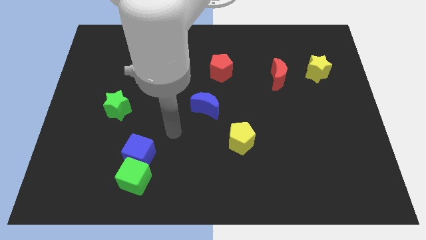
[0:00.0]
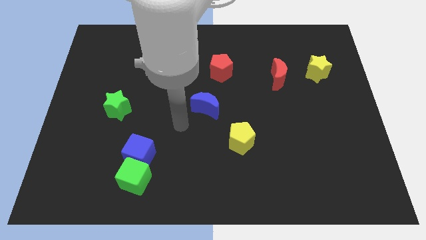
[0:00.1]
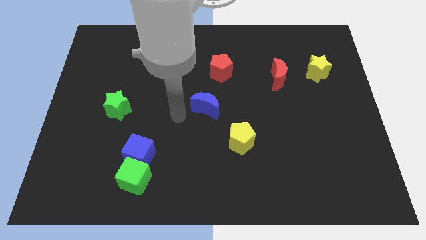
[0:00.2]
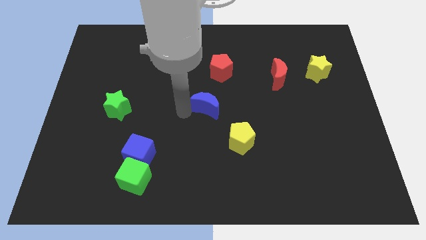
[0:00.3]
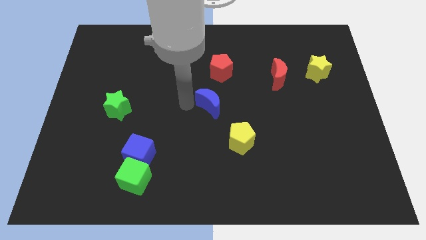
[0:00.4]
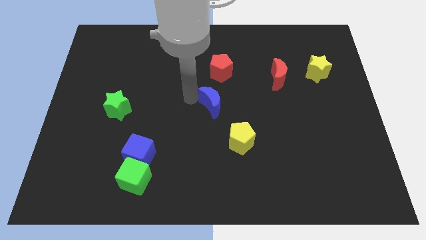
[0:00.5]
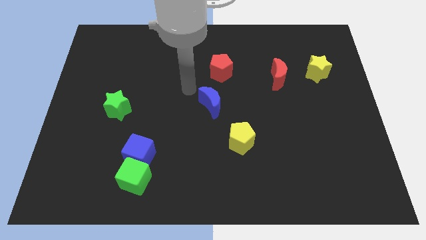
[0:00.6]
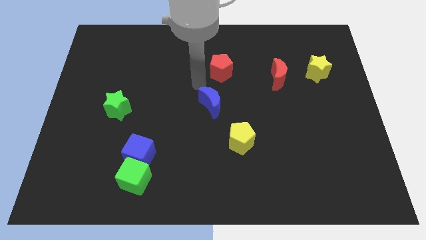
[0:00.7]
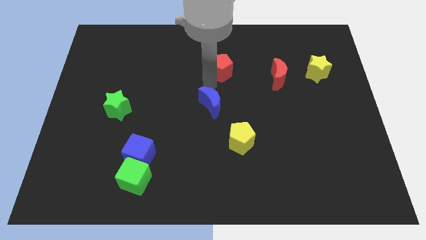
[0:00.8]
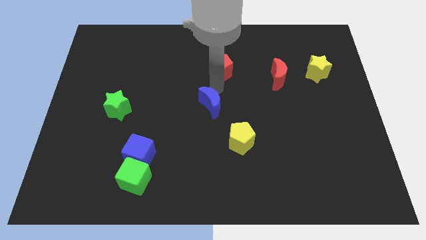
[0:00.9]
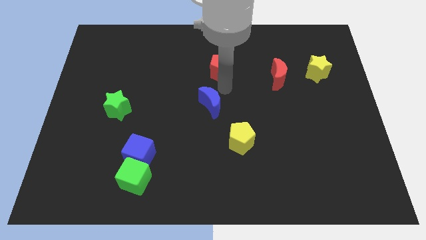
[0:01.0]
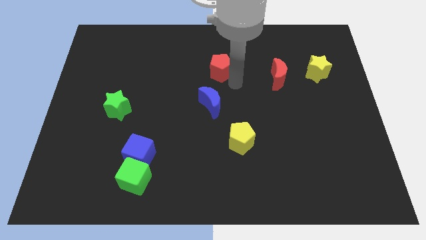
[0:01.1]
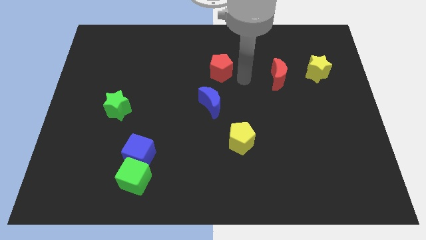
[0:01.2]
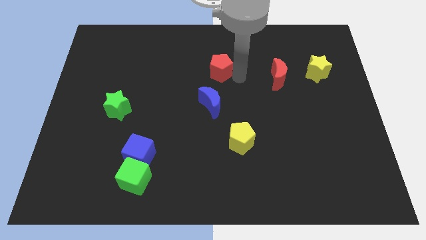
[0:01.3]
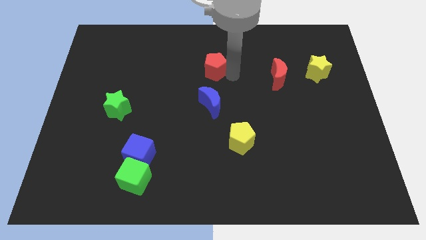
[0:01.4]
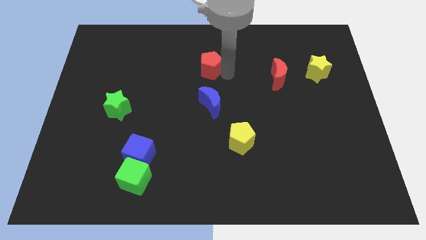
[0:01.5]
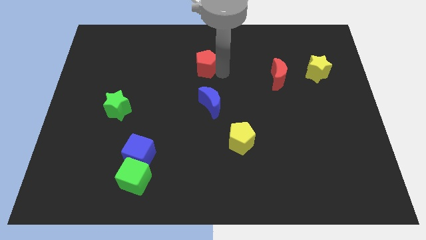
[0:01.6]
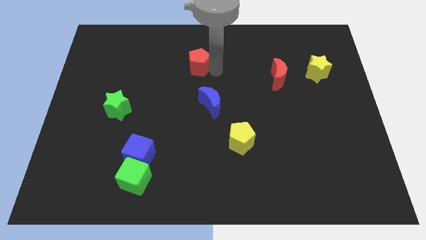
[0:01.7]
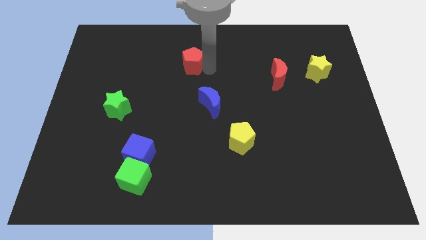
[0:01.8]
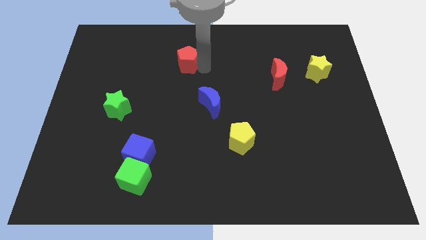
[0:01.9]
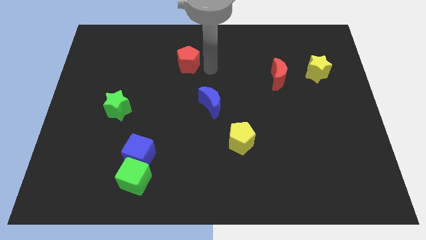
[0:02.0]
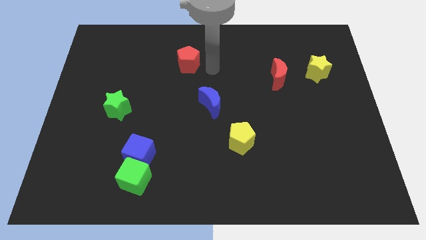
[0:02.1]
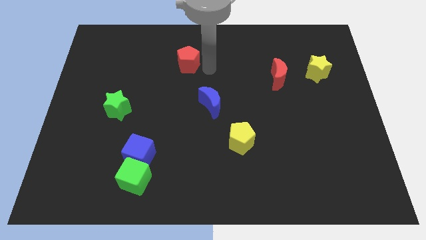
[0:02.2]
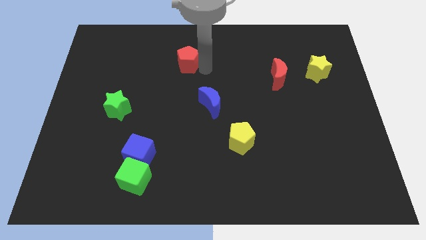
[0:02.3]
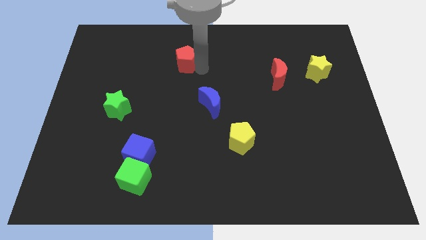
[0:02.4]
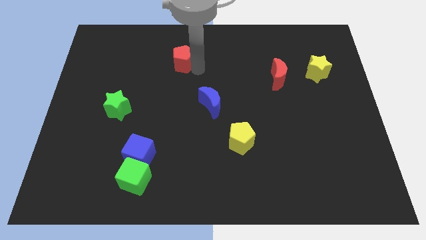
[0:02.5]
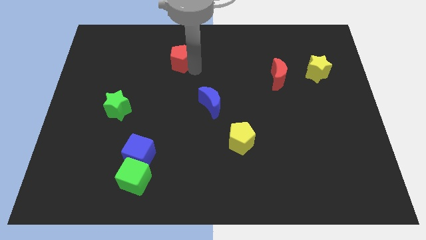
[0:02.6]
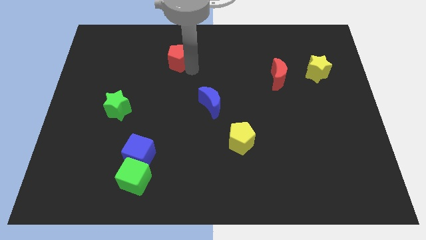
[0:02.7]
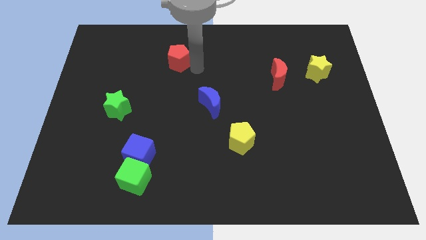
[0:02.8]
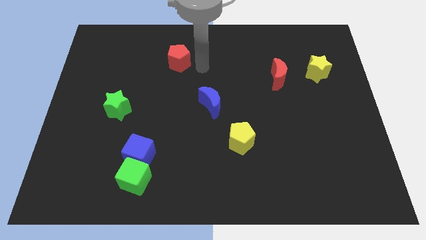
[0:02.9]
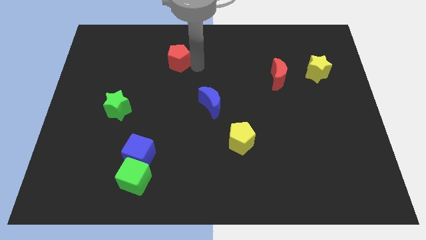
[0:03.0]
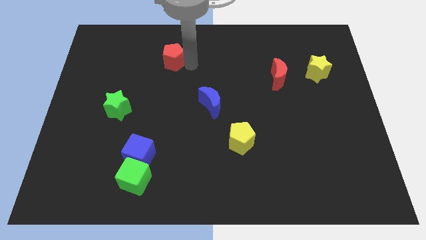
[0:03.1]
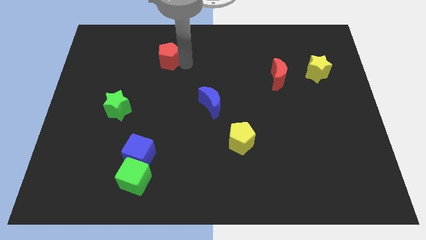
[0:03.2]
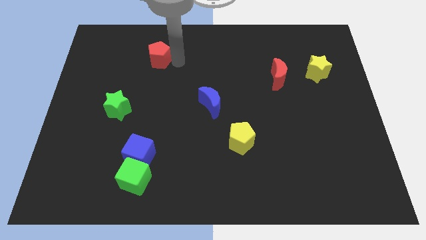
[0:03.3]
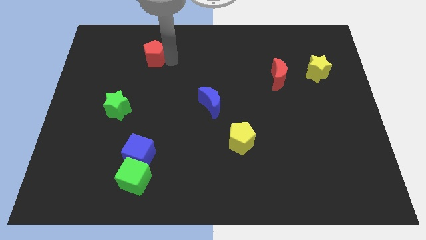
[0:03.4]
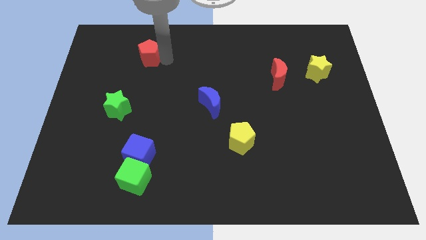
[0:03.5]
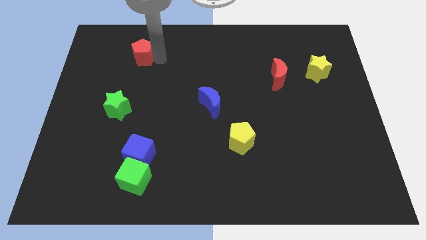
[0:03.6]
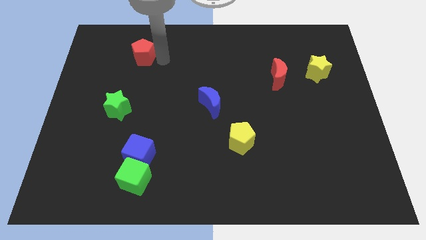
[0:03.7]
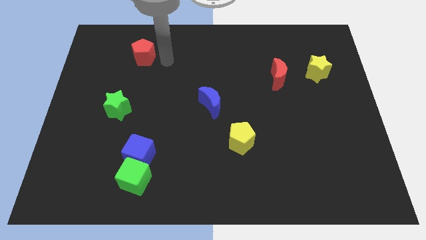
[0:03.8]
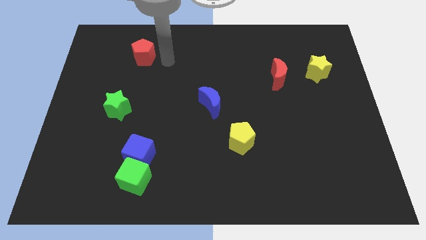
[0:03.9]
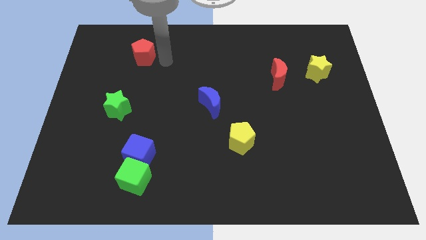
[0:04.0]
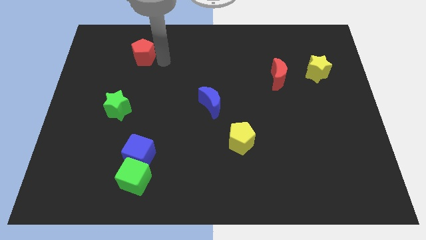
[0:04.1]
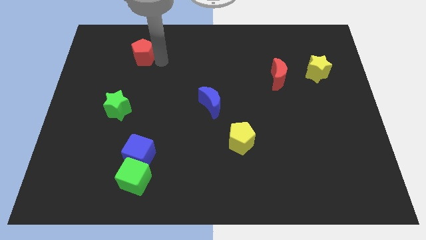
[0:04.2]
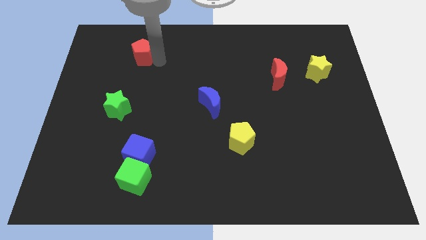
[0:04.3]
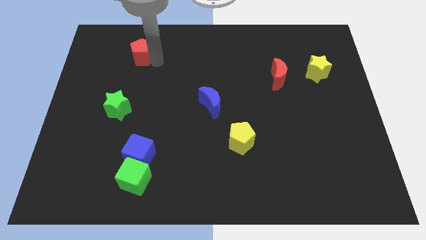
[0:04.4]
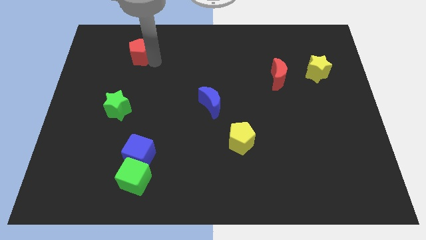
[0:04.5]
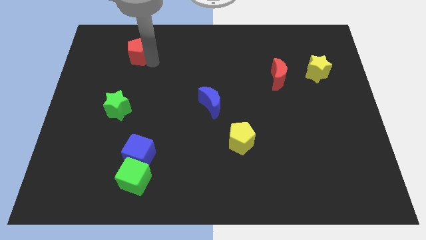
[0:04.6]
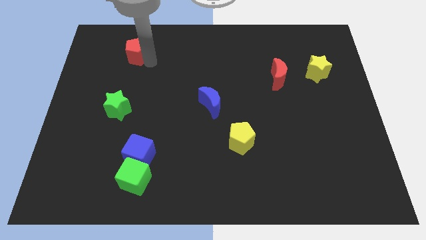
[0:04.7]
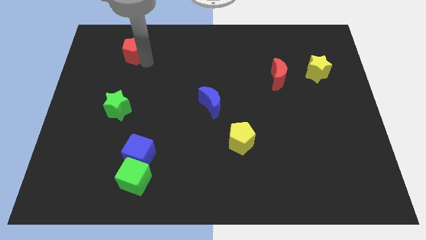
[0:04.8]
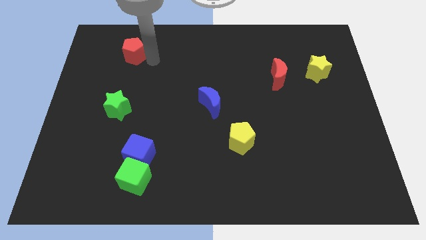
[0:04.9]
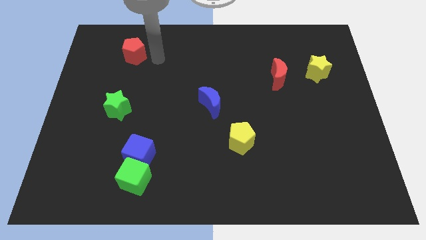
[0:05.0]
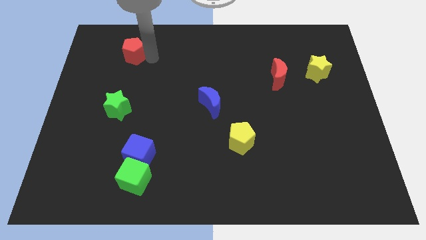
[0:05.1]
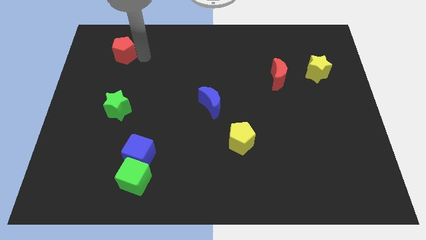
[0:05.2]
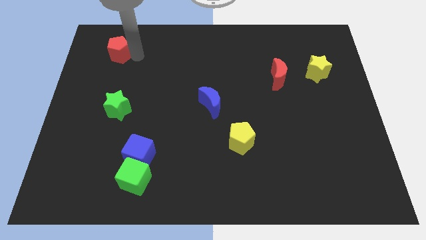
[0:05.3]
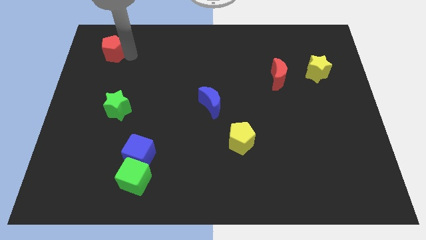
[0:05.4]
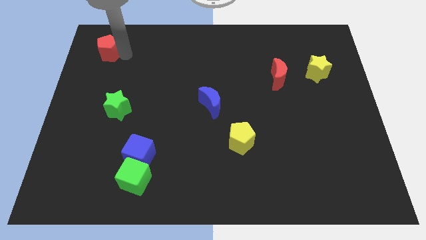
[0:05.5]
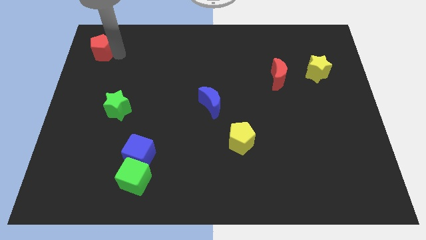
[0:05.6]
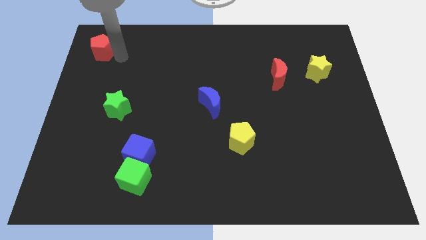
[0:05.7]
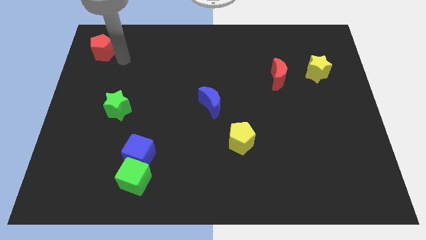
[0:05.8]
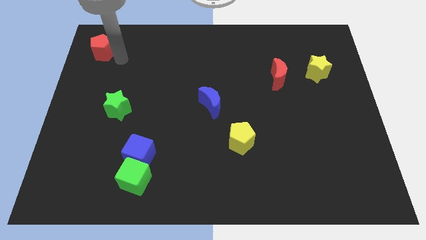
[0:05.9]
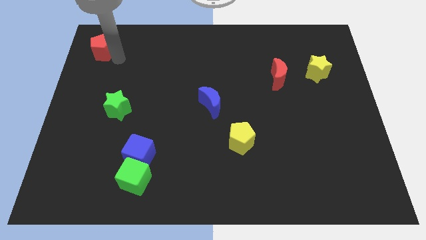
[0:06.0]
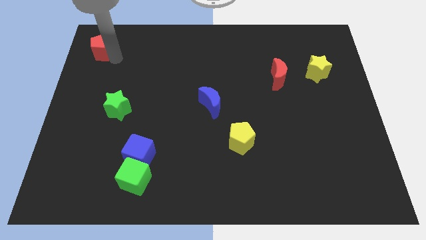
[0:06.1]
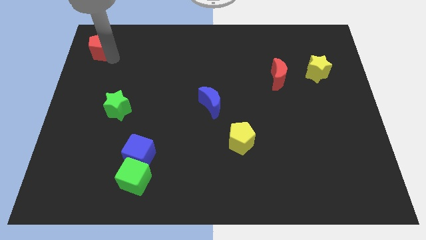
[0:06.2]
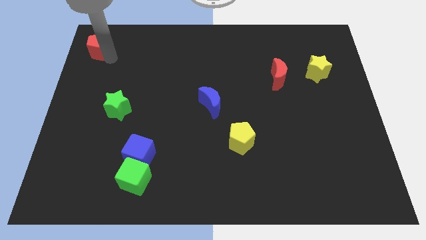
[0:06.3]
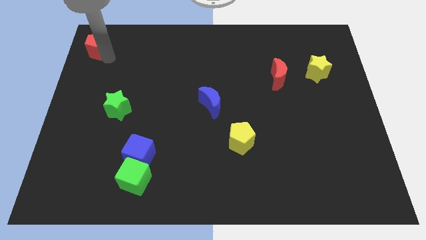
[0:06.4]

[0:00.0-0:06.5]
slide the red pentagon to the top left

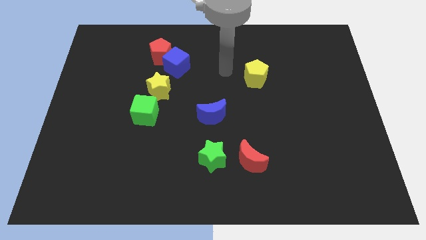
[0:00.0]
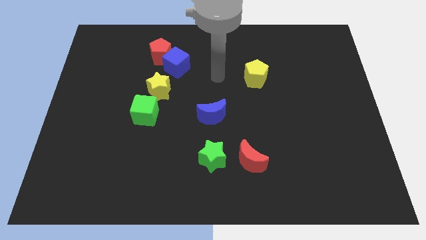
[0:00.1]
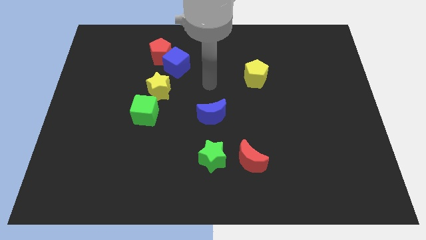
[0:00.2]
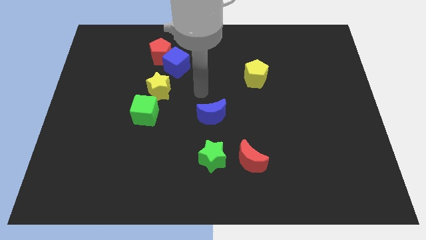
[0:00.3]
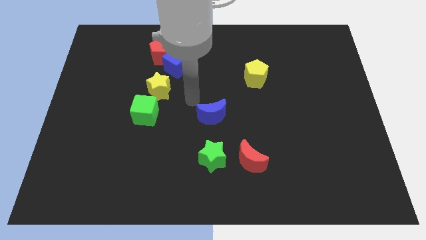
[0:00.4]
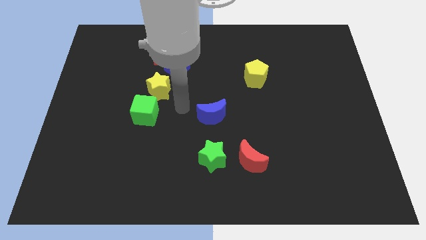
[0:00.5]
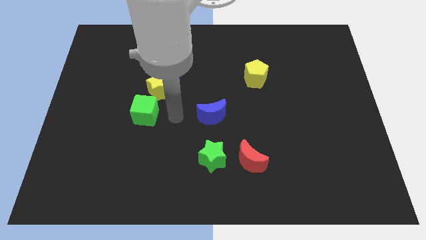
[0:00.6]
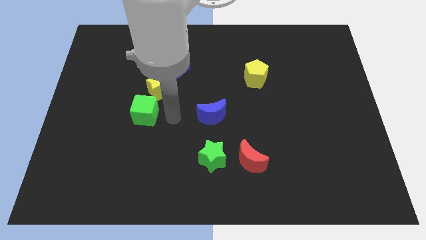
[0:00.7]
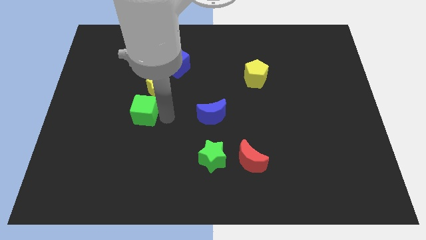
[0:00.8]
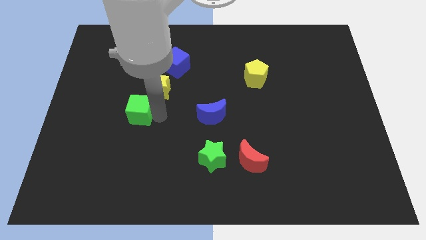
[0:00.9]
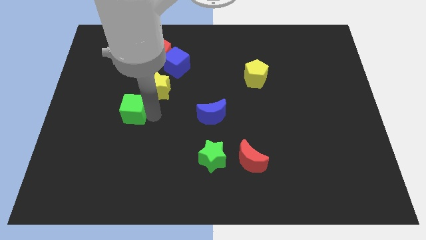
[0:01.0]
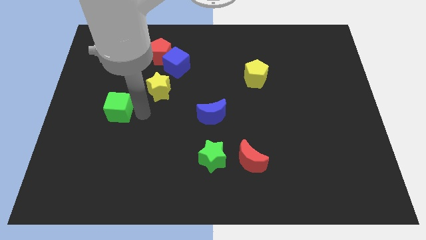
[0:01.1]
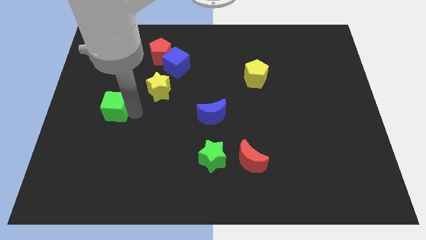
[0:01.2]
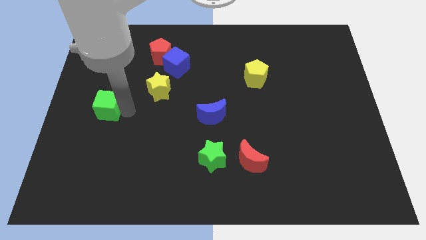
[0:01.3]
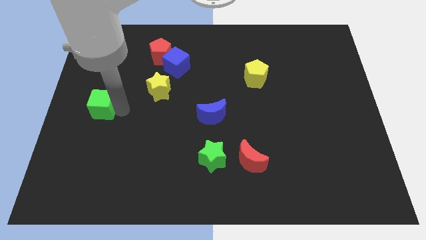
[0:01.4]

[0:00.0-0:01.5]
put the green cube to the left side of the board
